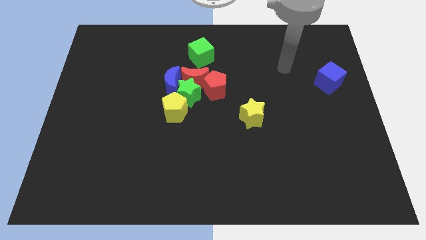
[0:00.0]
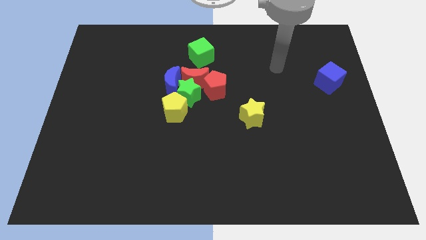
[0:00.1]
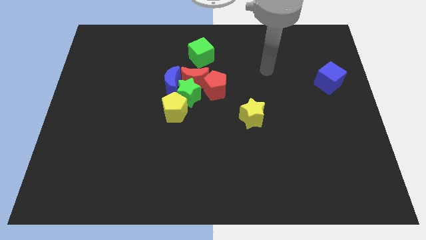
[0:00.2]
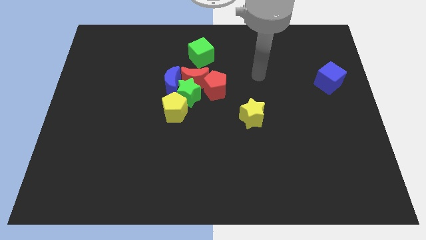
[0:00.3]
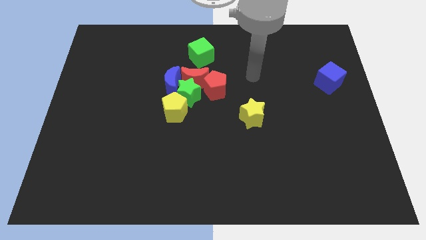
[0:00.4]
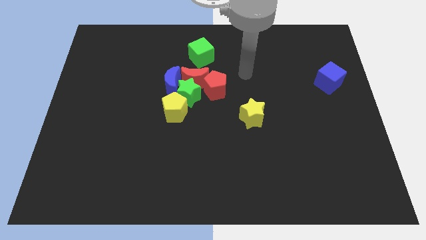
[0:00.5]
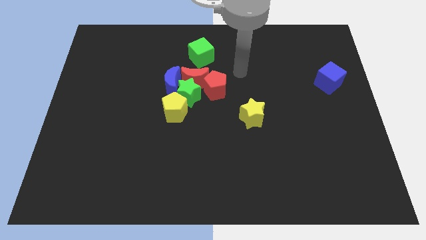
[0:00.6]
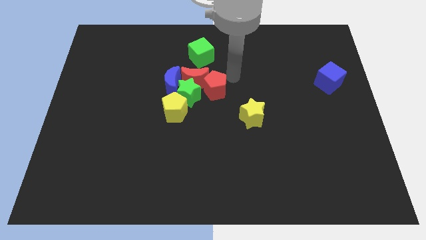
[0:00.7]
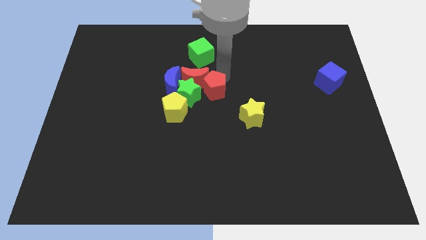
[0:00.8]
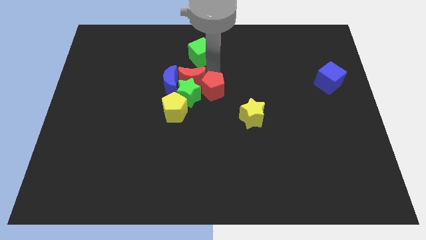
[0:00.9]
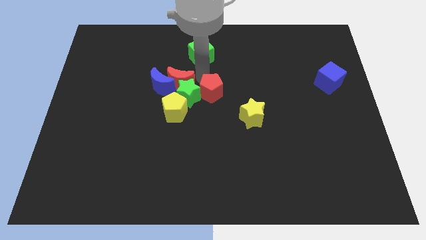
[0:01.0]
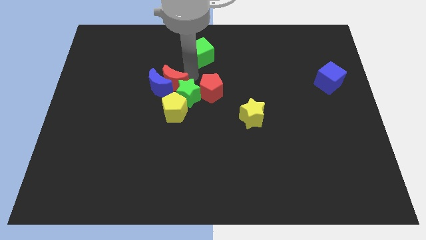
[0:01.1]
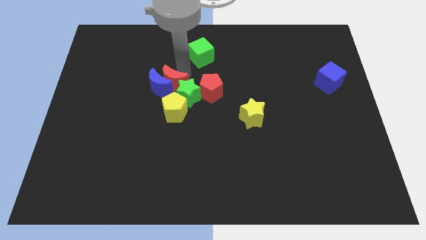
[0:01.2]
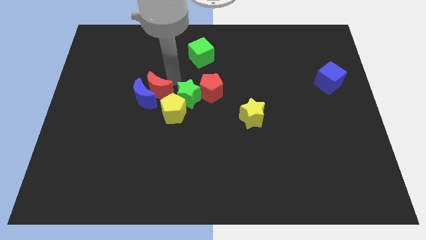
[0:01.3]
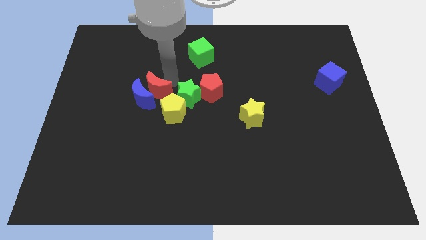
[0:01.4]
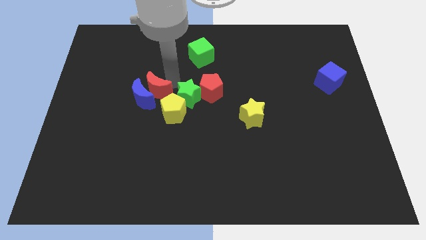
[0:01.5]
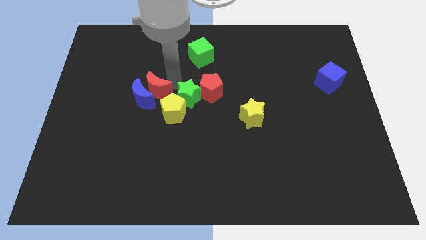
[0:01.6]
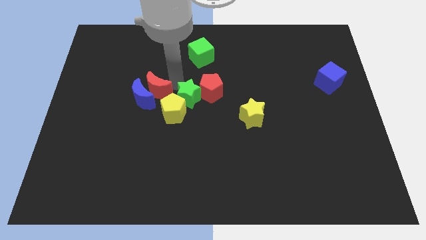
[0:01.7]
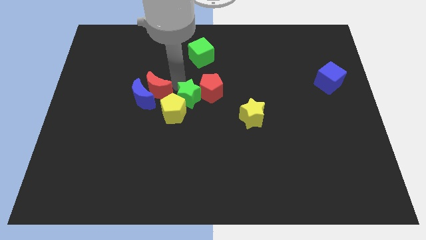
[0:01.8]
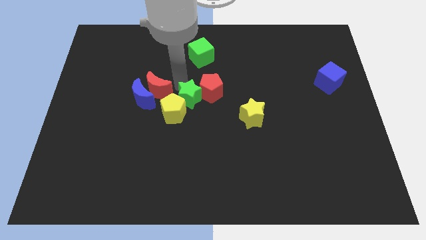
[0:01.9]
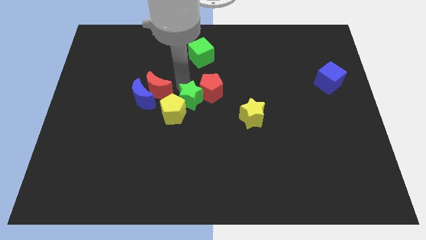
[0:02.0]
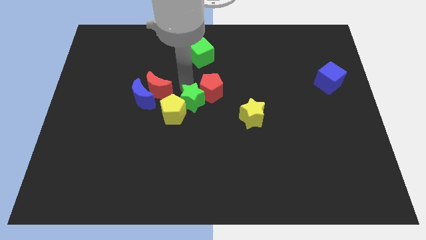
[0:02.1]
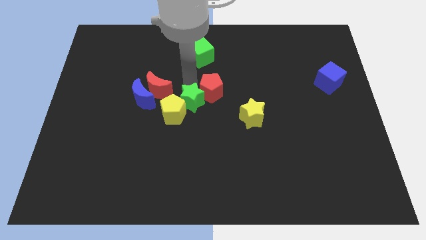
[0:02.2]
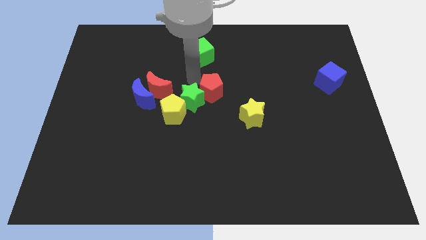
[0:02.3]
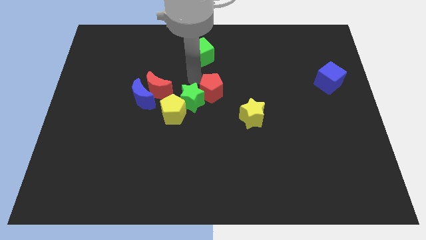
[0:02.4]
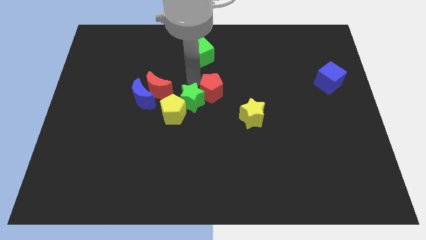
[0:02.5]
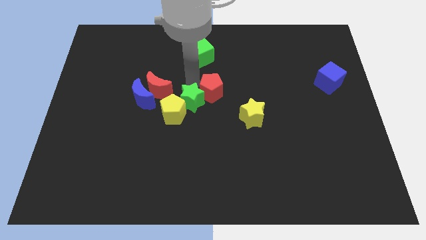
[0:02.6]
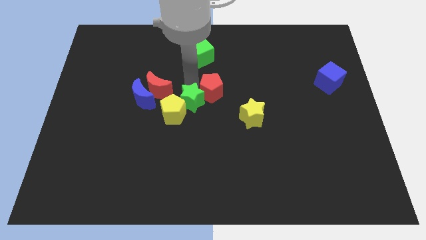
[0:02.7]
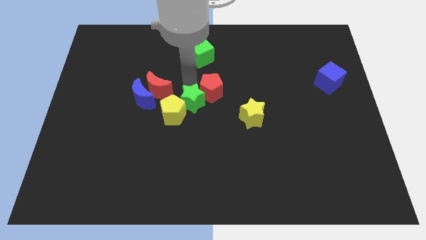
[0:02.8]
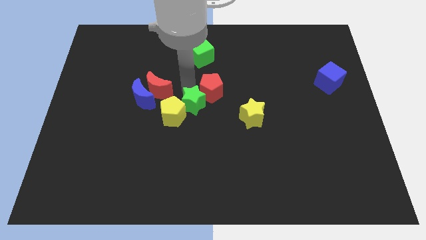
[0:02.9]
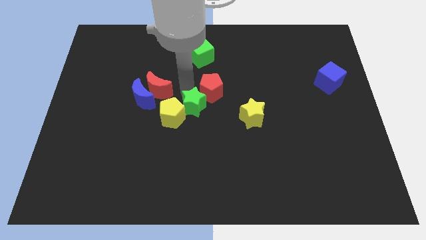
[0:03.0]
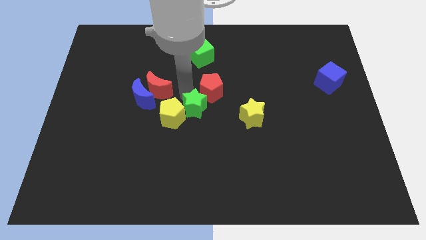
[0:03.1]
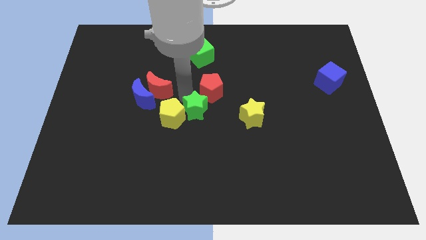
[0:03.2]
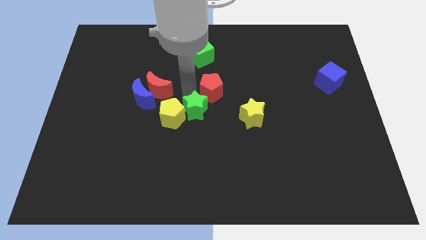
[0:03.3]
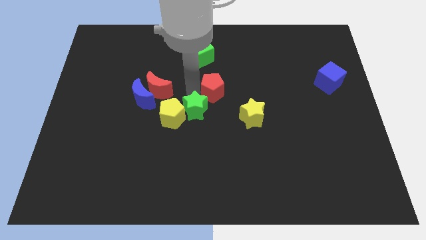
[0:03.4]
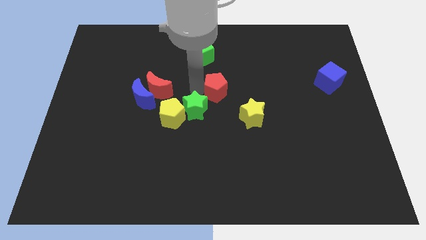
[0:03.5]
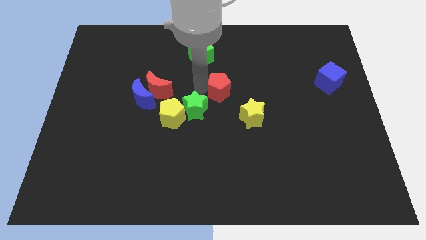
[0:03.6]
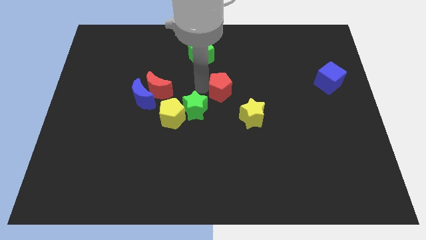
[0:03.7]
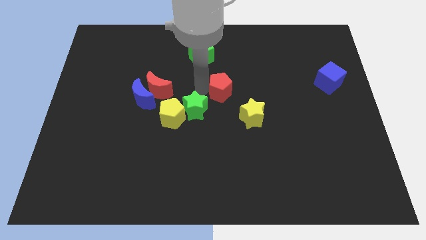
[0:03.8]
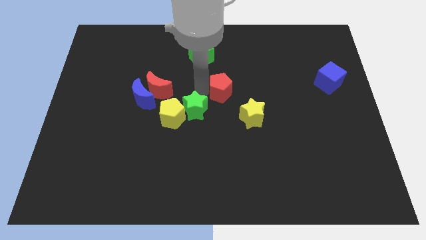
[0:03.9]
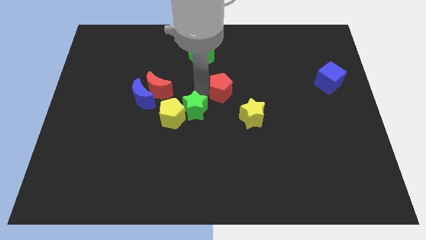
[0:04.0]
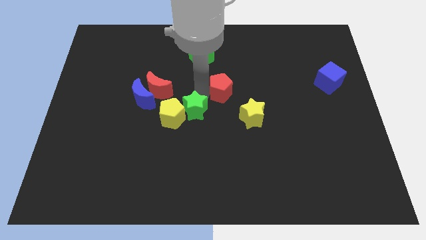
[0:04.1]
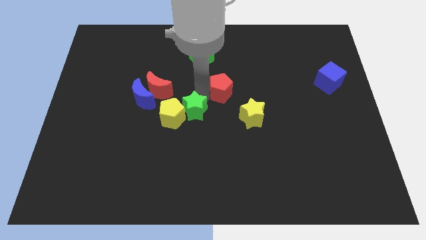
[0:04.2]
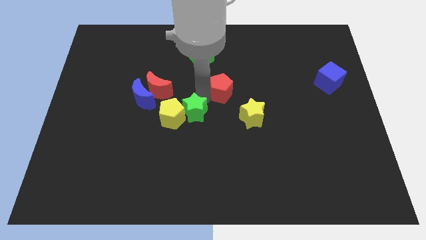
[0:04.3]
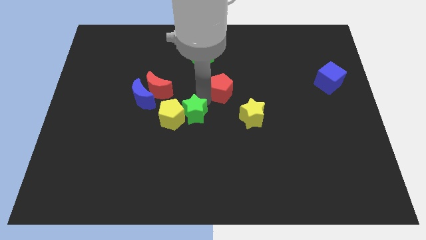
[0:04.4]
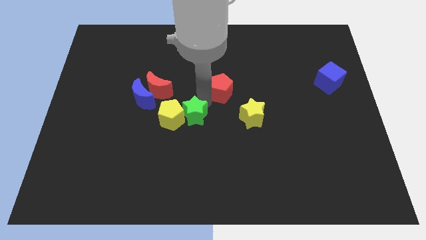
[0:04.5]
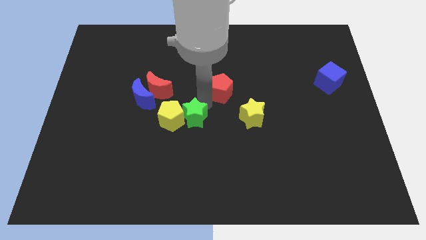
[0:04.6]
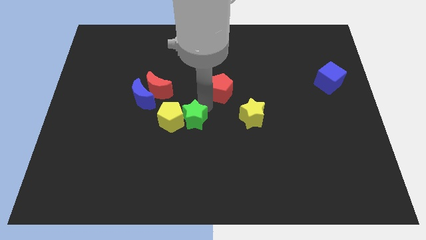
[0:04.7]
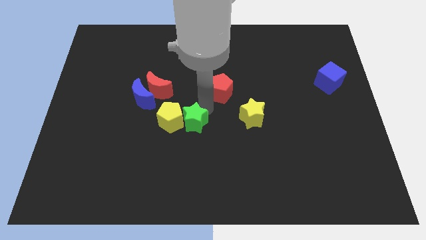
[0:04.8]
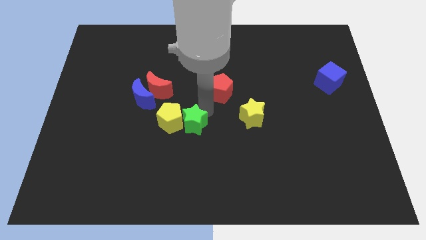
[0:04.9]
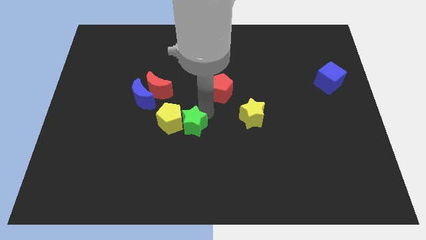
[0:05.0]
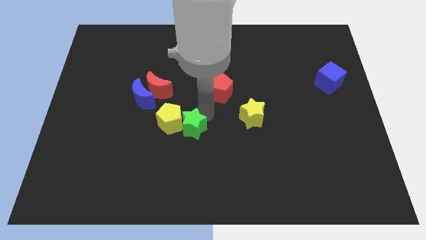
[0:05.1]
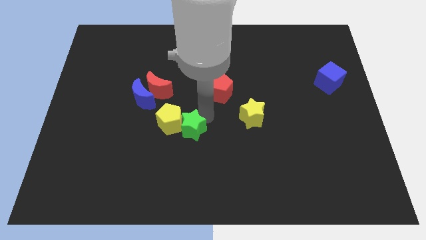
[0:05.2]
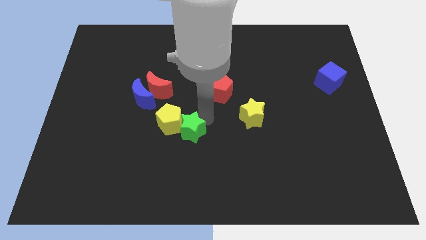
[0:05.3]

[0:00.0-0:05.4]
separate the green star from the group

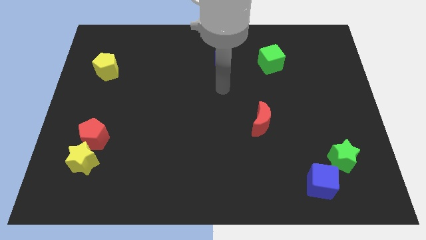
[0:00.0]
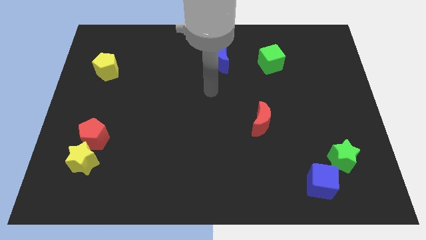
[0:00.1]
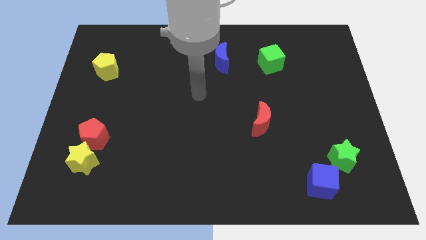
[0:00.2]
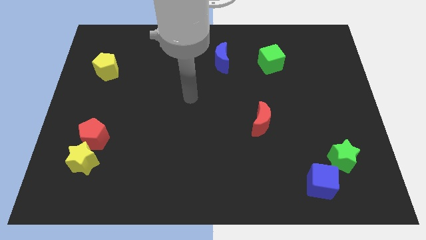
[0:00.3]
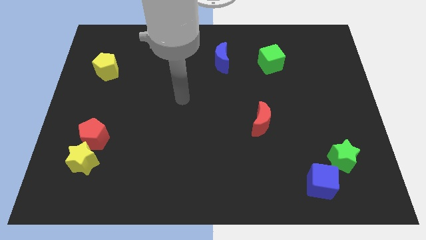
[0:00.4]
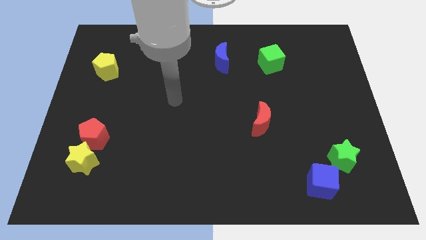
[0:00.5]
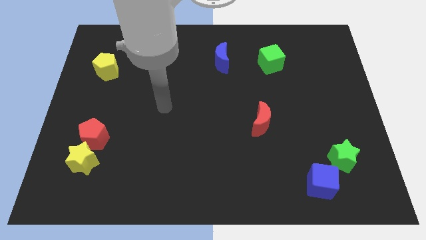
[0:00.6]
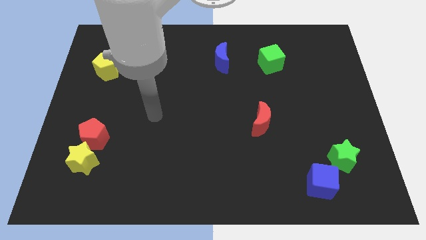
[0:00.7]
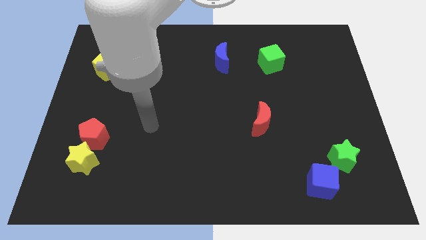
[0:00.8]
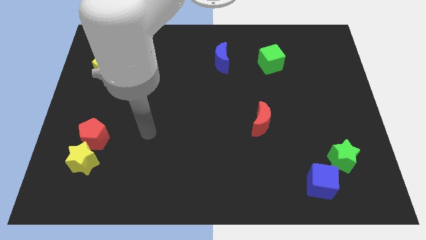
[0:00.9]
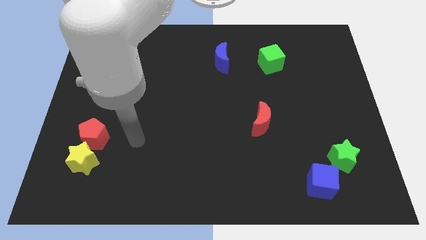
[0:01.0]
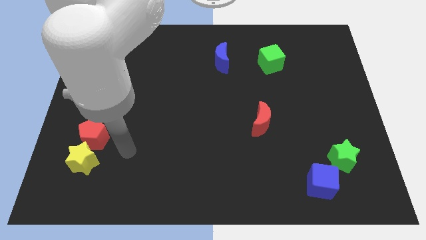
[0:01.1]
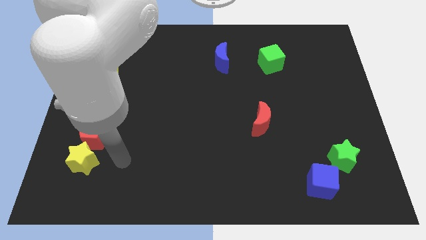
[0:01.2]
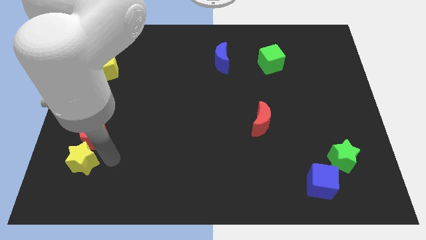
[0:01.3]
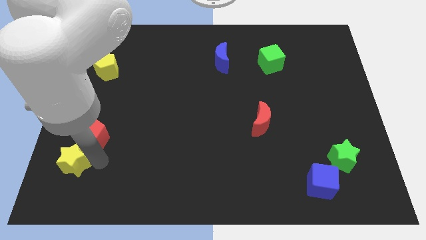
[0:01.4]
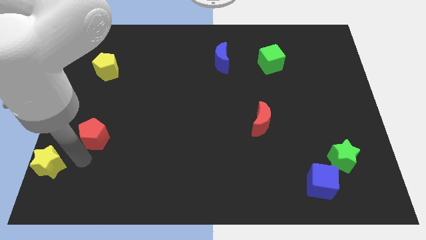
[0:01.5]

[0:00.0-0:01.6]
move the red pentagon away from the yellow star

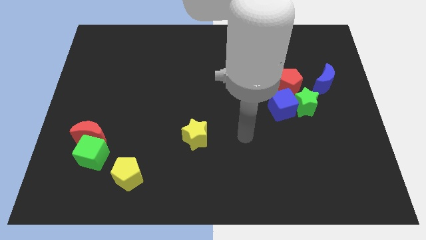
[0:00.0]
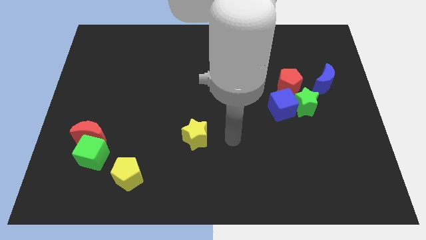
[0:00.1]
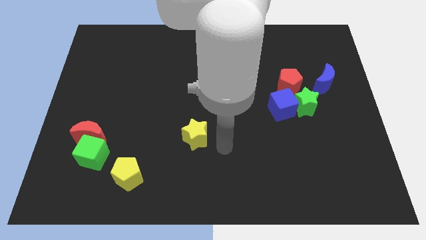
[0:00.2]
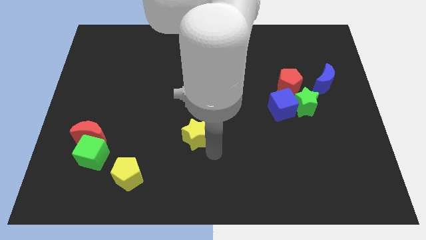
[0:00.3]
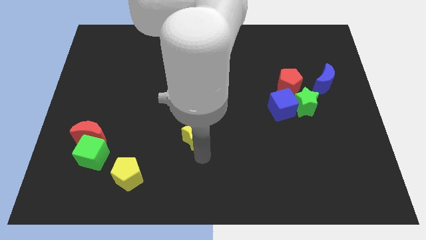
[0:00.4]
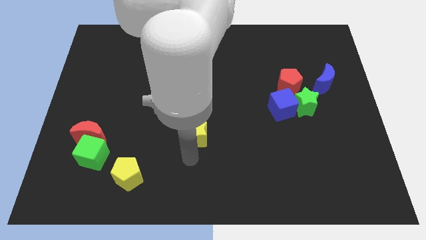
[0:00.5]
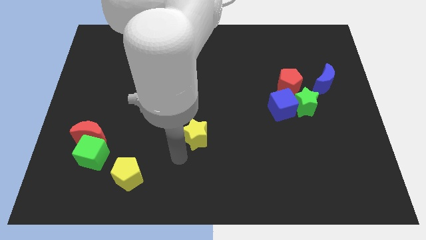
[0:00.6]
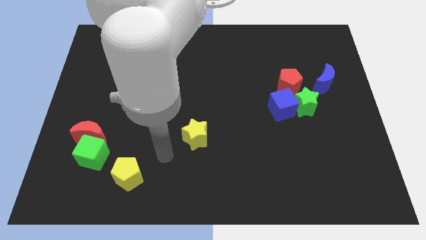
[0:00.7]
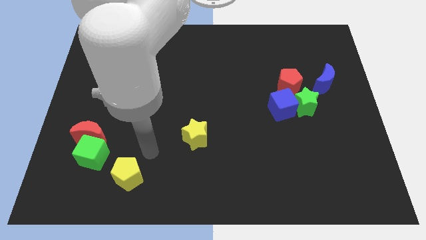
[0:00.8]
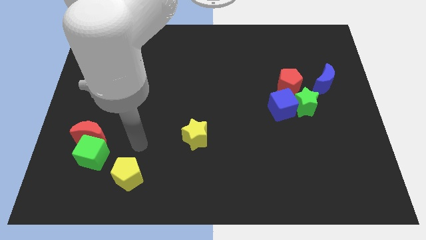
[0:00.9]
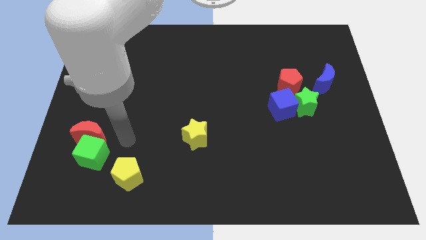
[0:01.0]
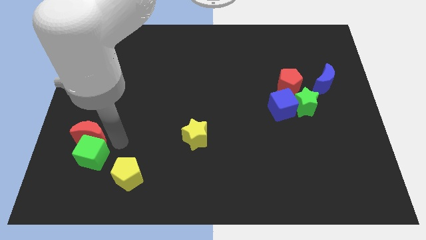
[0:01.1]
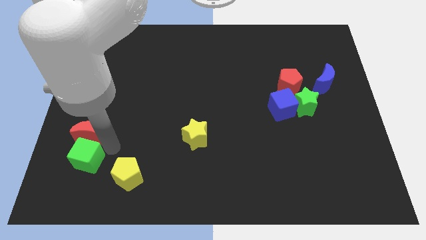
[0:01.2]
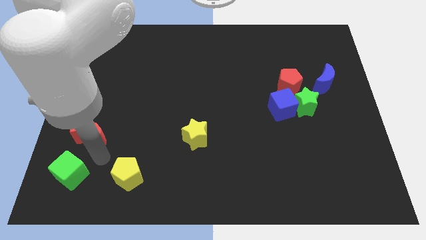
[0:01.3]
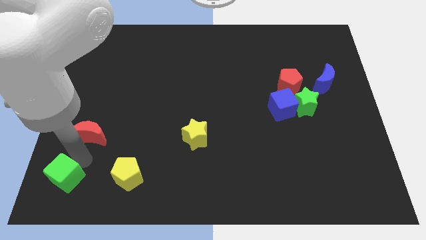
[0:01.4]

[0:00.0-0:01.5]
separate the red moon from the green cube

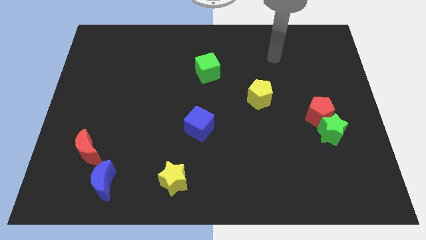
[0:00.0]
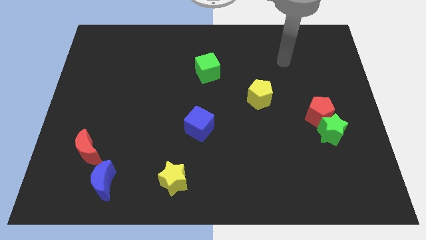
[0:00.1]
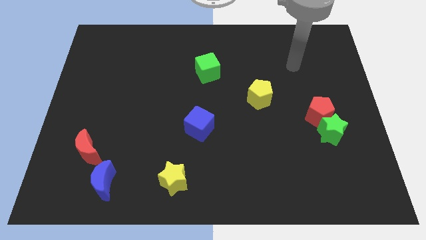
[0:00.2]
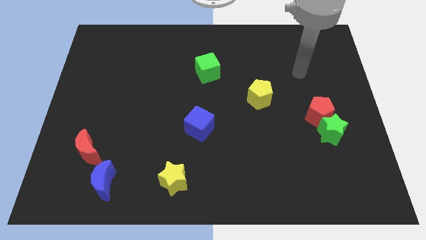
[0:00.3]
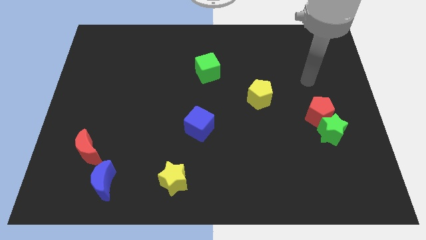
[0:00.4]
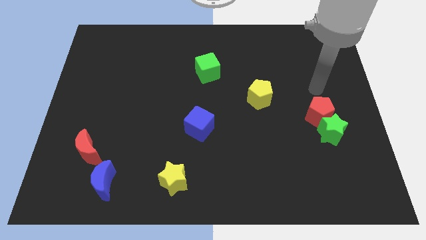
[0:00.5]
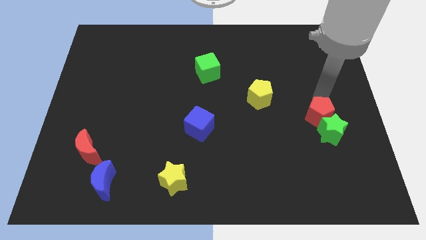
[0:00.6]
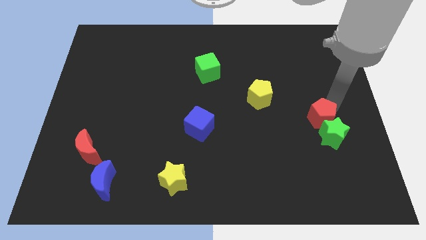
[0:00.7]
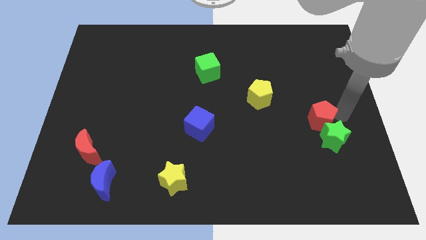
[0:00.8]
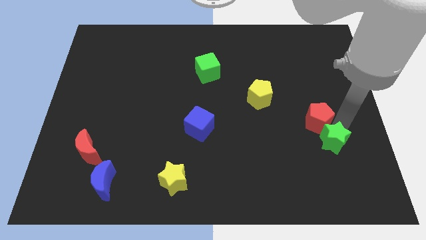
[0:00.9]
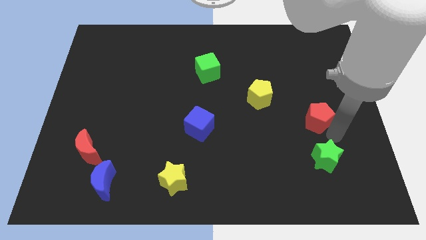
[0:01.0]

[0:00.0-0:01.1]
move the red pentagon away from the green star

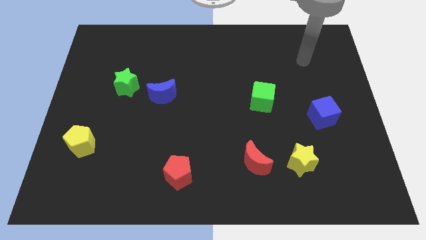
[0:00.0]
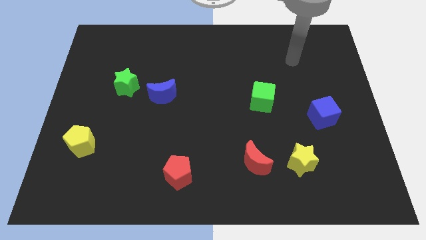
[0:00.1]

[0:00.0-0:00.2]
separate the blue moon from the green star
